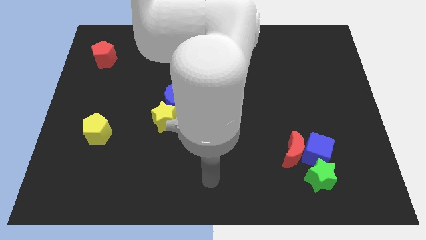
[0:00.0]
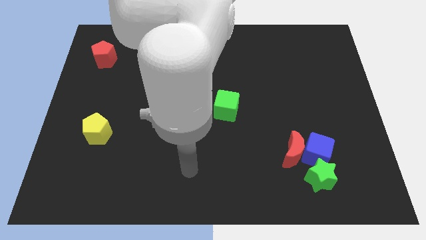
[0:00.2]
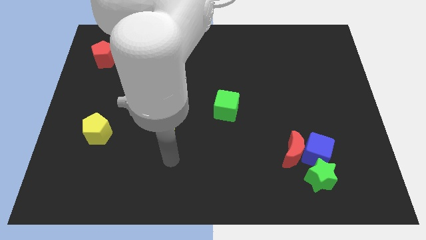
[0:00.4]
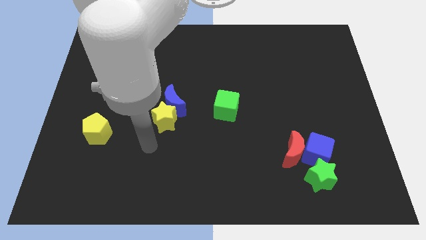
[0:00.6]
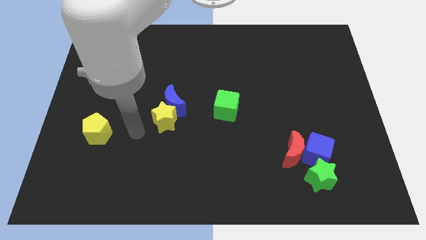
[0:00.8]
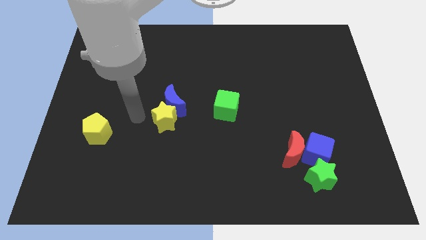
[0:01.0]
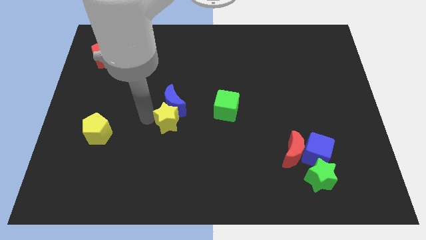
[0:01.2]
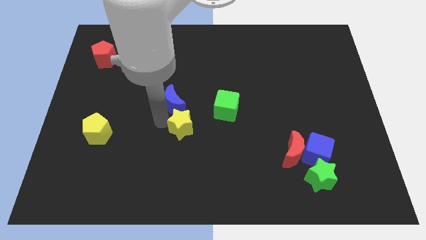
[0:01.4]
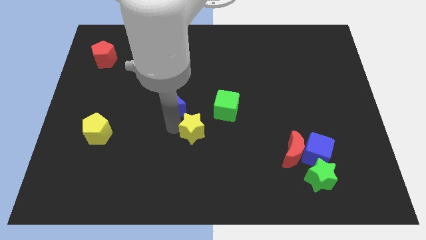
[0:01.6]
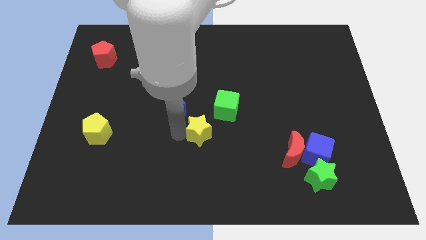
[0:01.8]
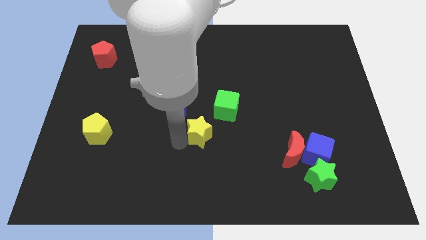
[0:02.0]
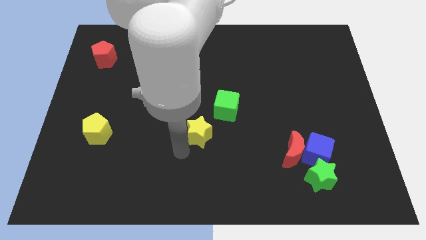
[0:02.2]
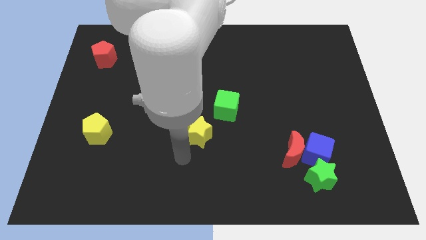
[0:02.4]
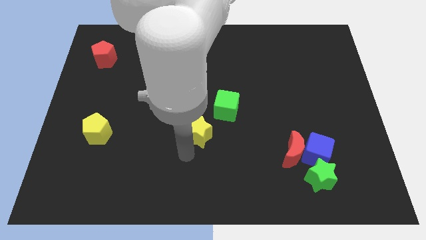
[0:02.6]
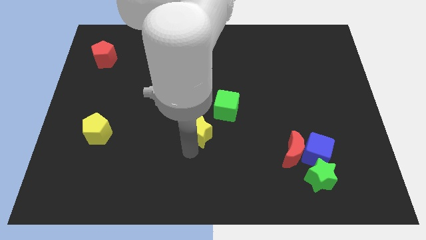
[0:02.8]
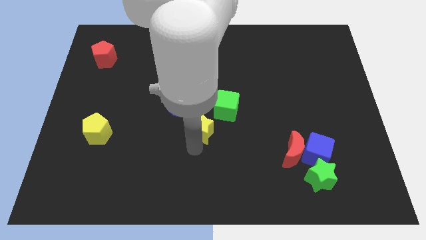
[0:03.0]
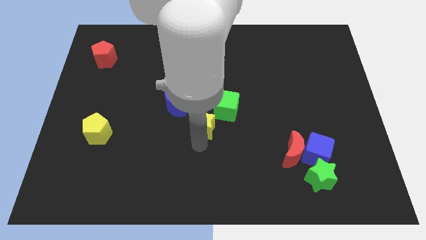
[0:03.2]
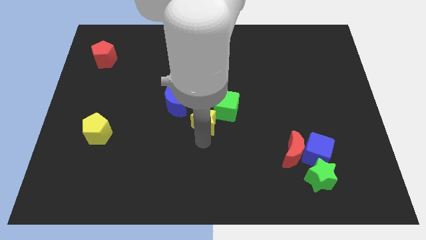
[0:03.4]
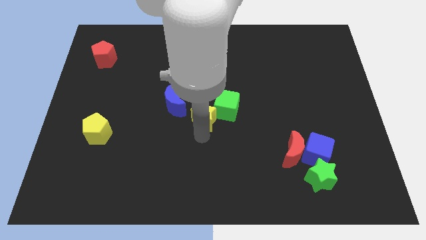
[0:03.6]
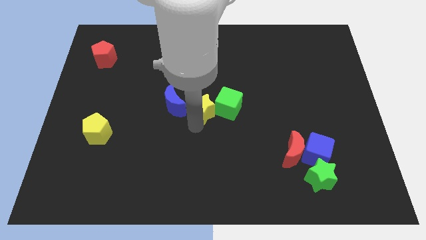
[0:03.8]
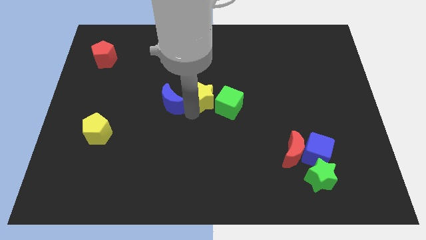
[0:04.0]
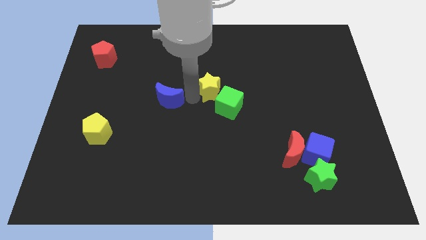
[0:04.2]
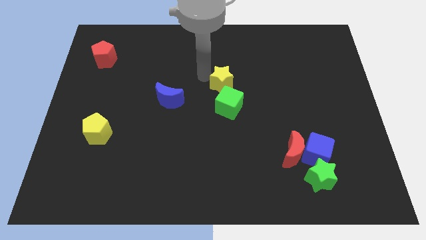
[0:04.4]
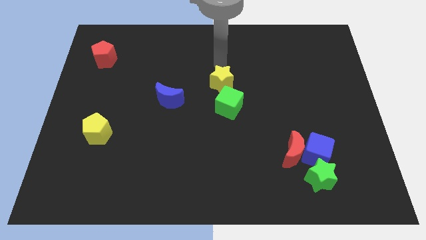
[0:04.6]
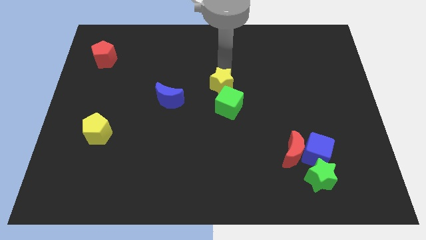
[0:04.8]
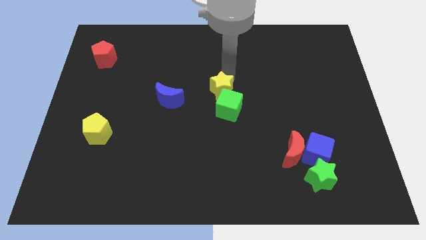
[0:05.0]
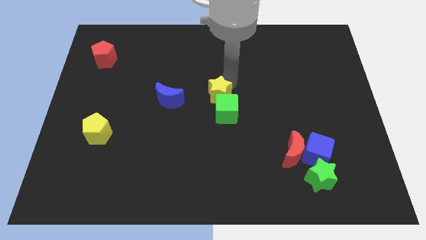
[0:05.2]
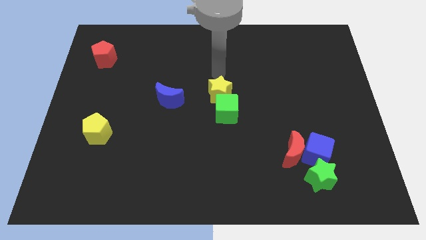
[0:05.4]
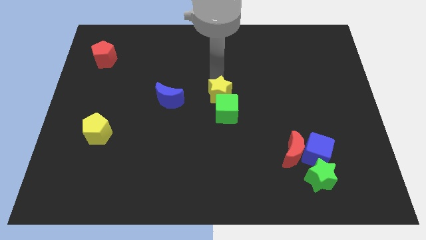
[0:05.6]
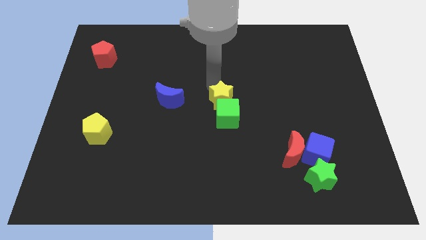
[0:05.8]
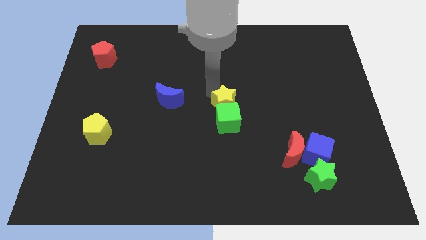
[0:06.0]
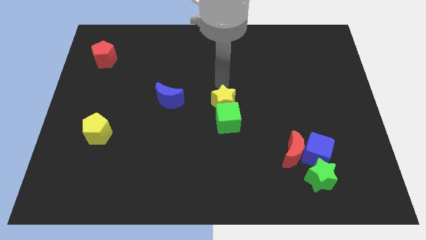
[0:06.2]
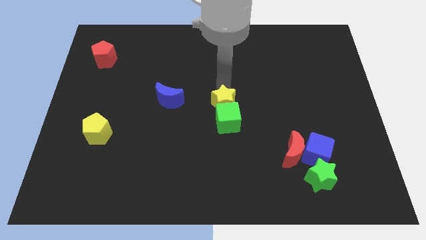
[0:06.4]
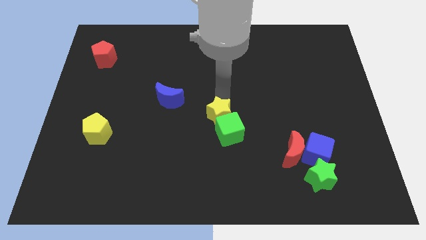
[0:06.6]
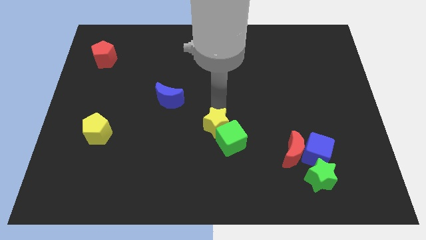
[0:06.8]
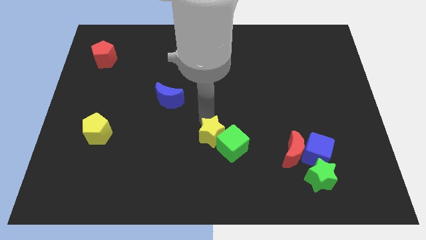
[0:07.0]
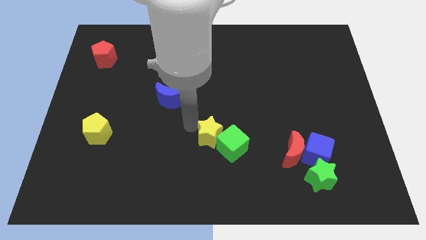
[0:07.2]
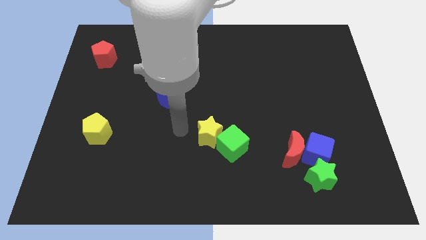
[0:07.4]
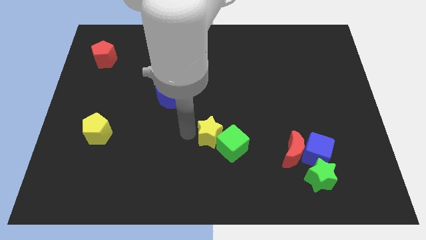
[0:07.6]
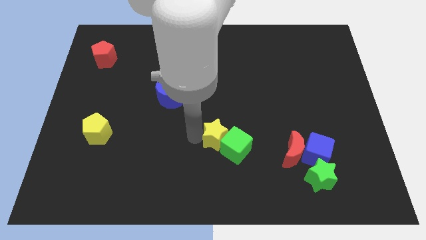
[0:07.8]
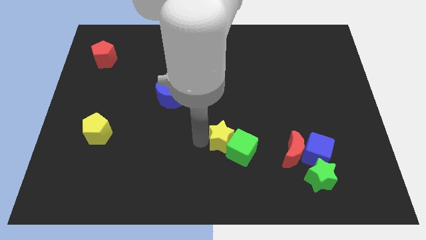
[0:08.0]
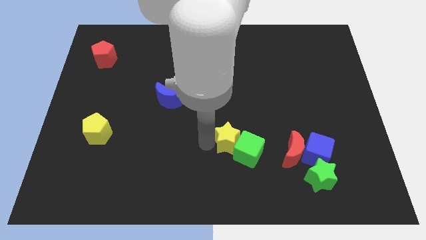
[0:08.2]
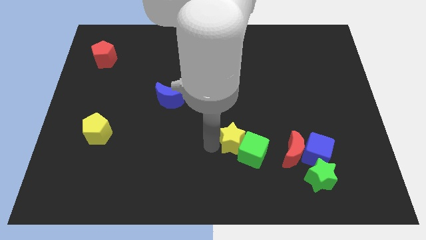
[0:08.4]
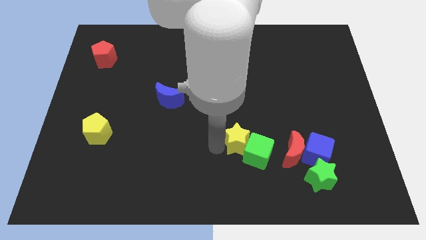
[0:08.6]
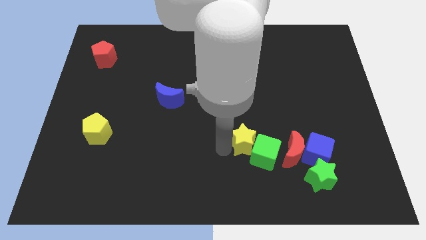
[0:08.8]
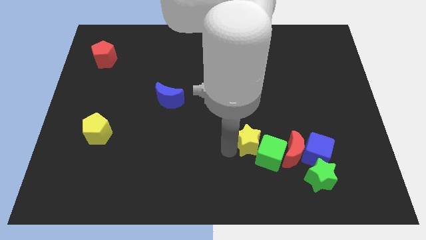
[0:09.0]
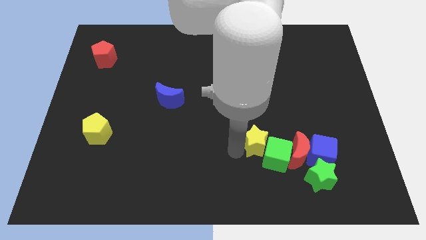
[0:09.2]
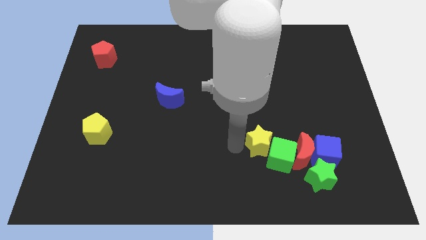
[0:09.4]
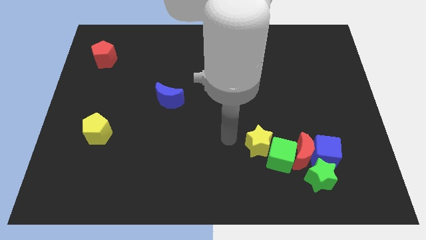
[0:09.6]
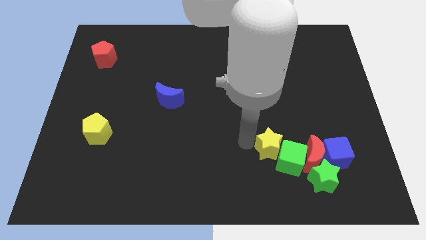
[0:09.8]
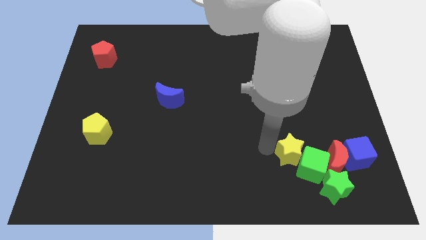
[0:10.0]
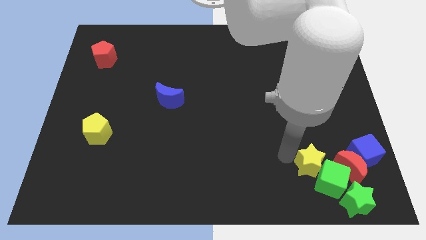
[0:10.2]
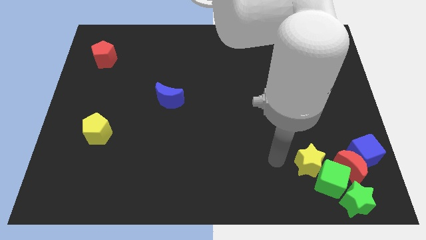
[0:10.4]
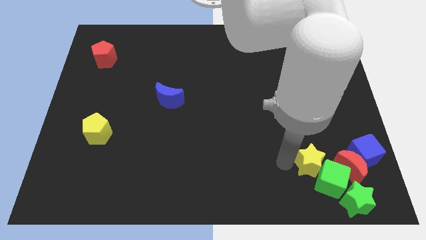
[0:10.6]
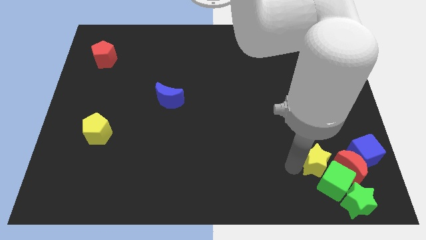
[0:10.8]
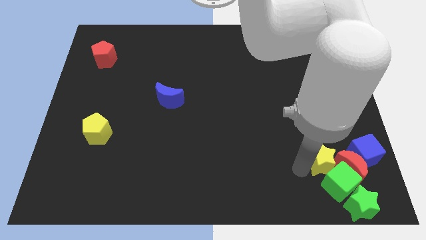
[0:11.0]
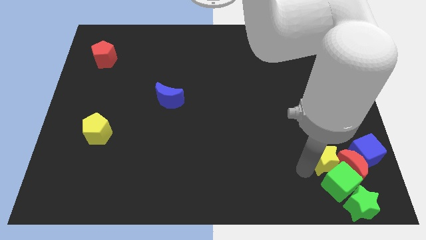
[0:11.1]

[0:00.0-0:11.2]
put the yellow star next to the red moon
